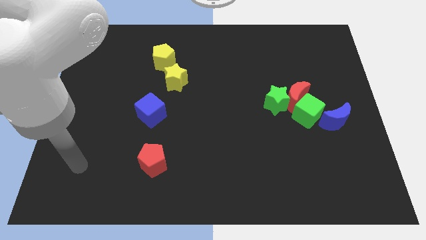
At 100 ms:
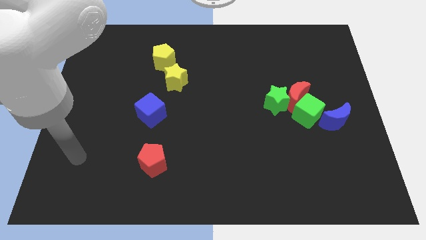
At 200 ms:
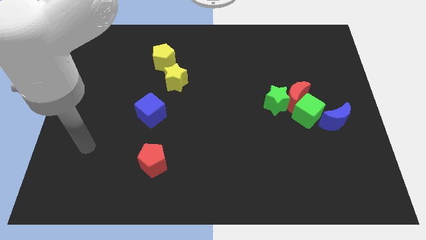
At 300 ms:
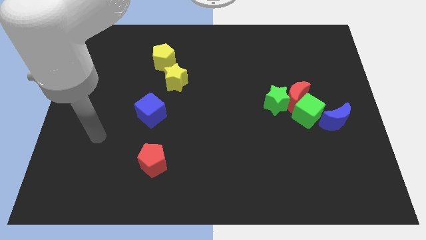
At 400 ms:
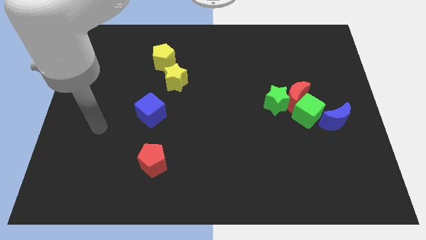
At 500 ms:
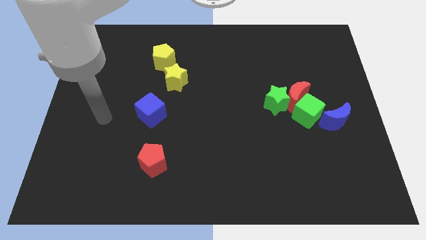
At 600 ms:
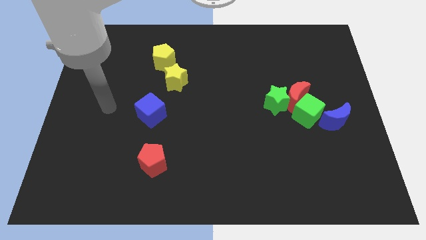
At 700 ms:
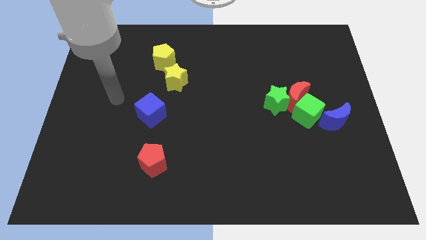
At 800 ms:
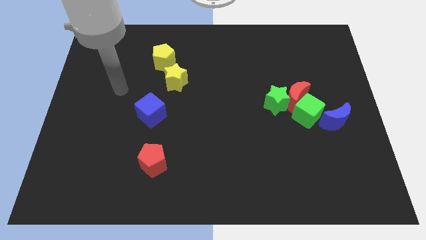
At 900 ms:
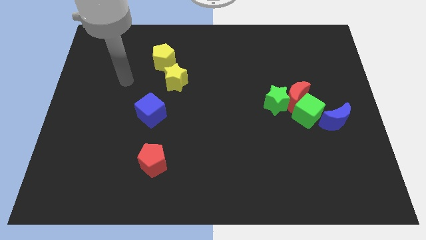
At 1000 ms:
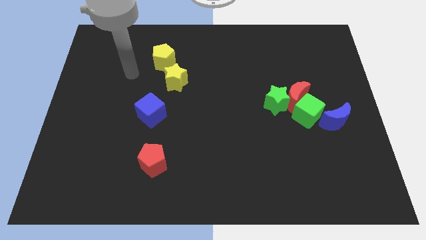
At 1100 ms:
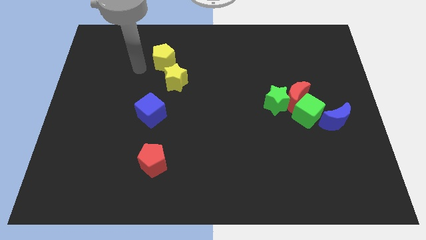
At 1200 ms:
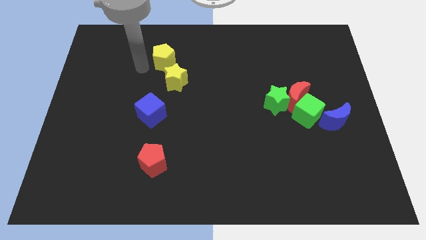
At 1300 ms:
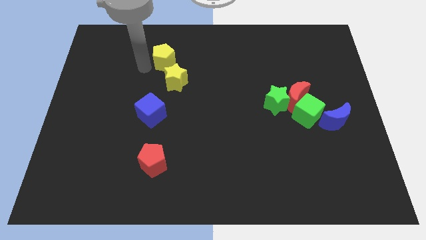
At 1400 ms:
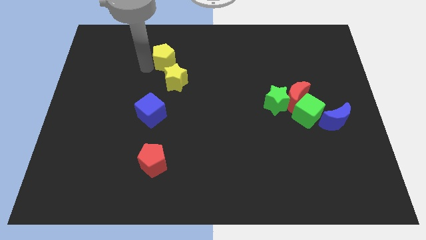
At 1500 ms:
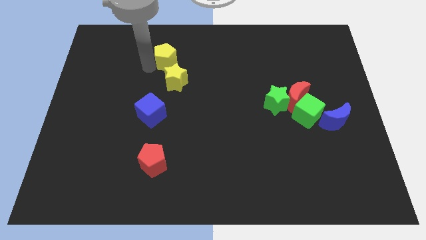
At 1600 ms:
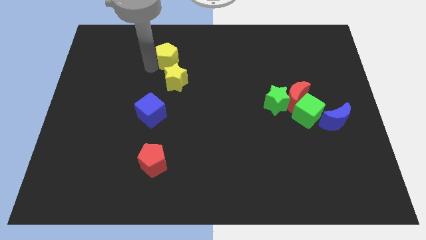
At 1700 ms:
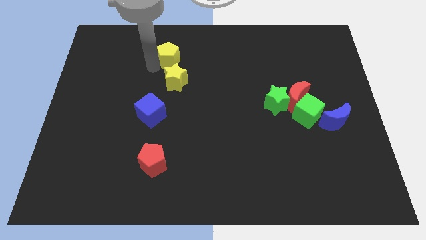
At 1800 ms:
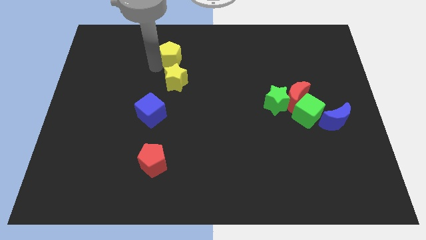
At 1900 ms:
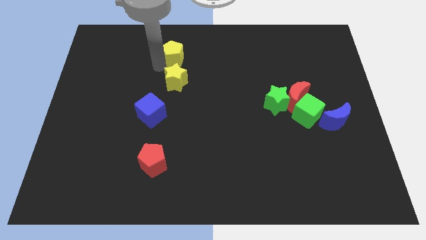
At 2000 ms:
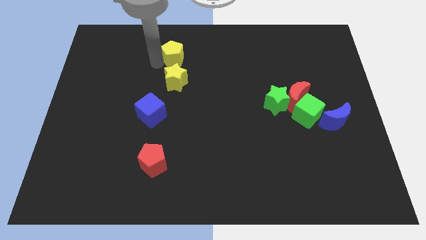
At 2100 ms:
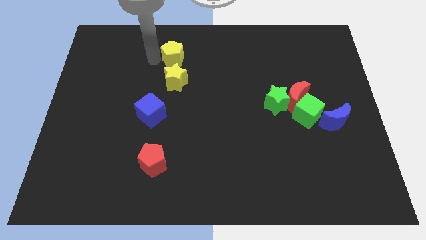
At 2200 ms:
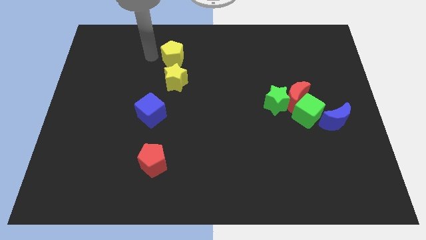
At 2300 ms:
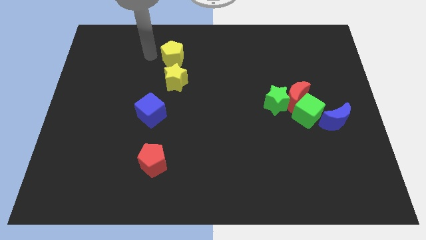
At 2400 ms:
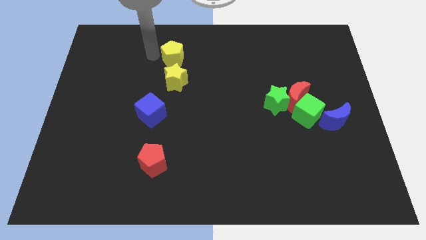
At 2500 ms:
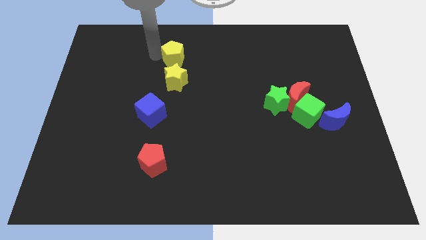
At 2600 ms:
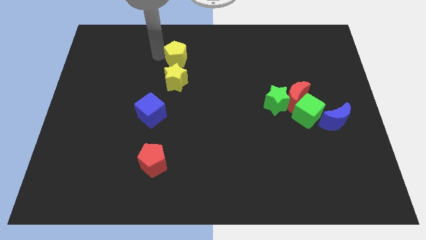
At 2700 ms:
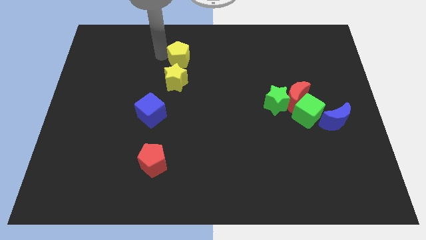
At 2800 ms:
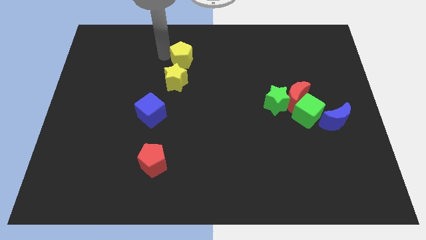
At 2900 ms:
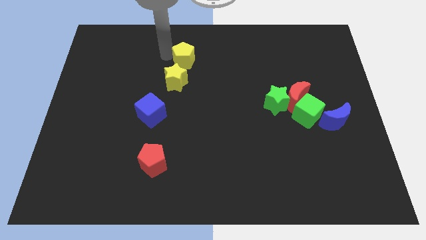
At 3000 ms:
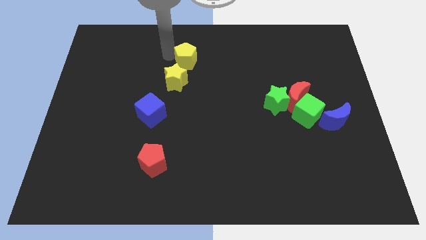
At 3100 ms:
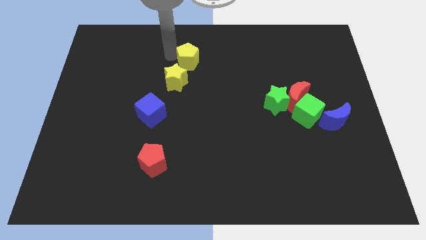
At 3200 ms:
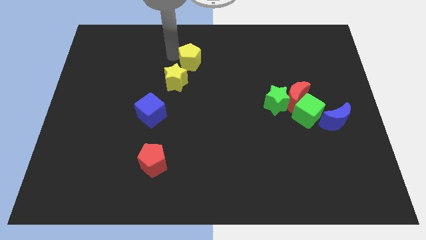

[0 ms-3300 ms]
slightly slide the yellow pentagon to the right

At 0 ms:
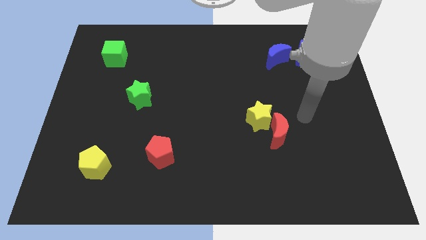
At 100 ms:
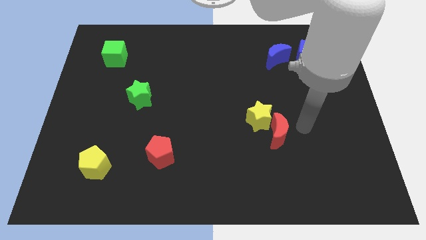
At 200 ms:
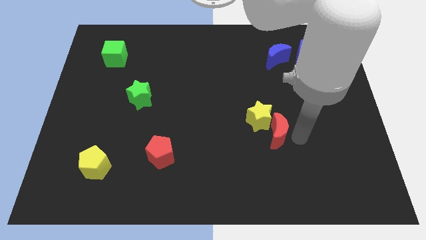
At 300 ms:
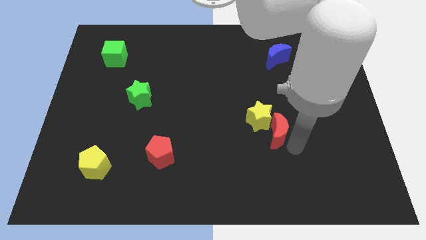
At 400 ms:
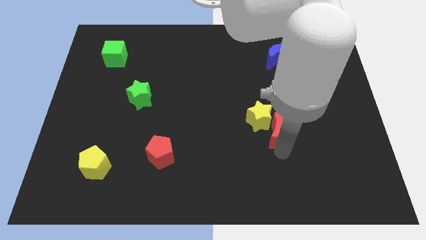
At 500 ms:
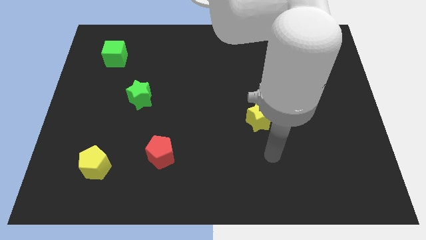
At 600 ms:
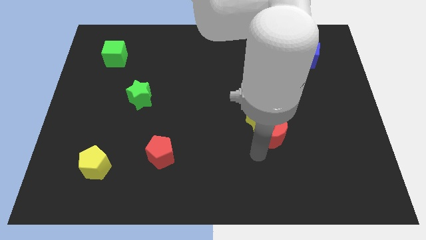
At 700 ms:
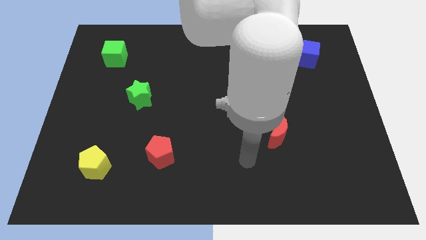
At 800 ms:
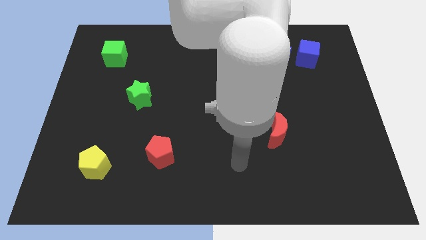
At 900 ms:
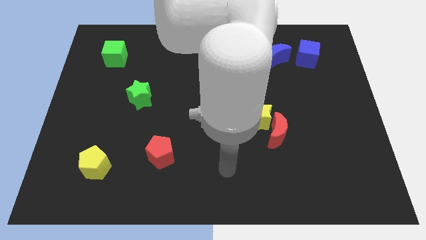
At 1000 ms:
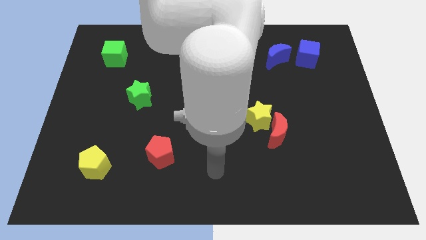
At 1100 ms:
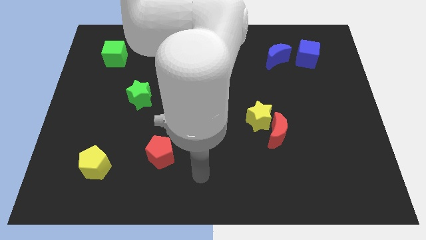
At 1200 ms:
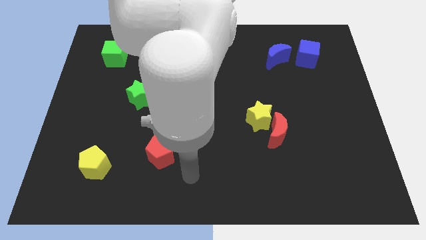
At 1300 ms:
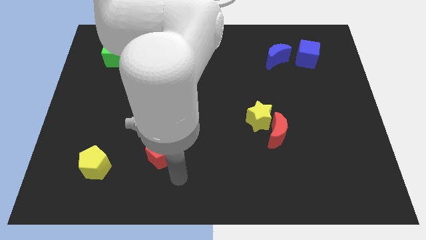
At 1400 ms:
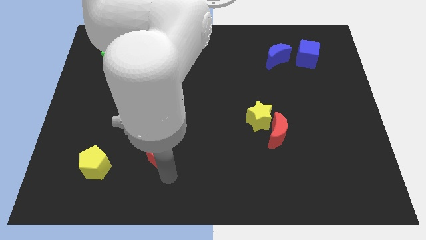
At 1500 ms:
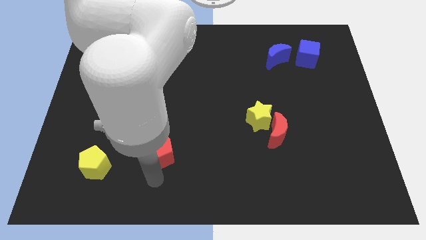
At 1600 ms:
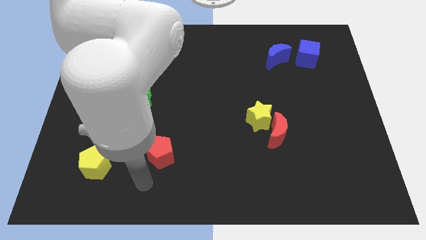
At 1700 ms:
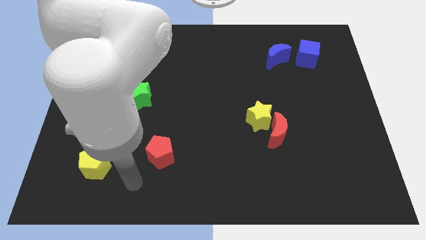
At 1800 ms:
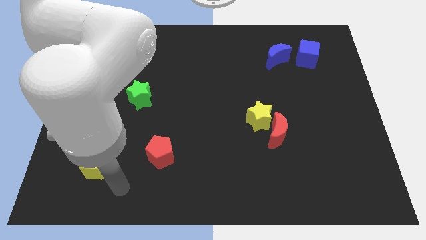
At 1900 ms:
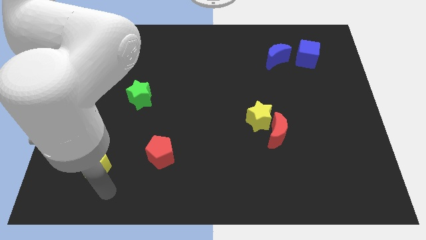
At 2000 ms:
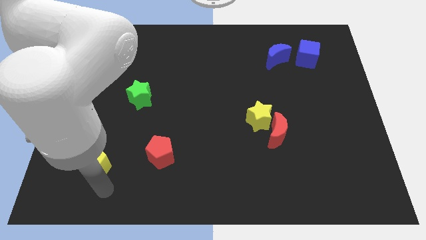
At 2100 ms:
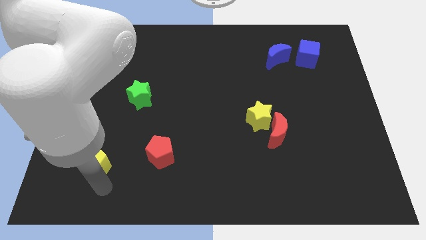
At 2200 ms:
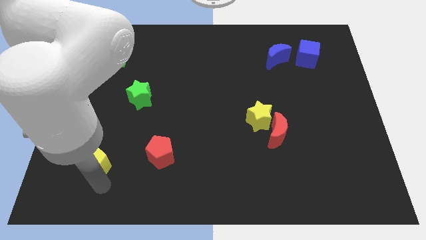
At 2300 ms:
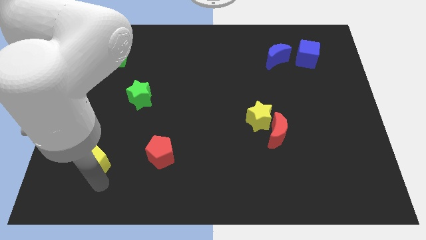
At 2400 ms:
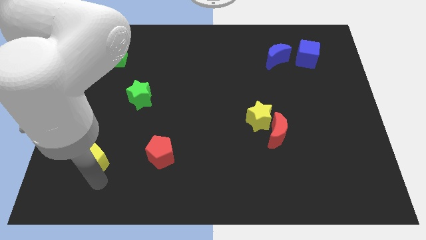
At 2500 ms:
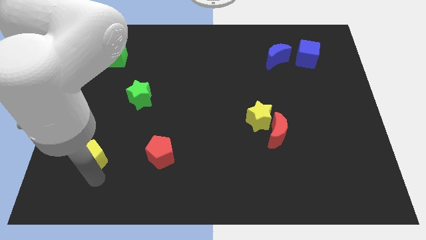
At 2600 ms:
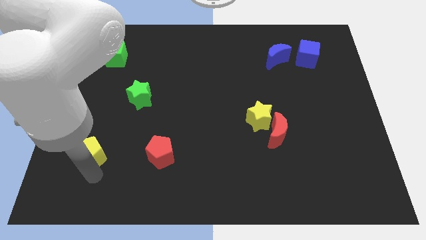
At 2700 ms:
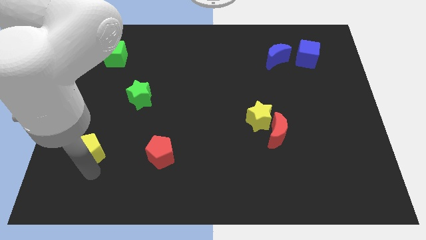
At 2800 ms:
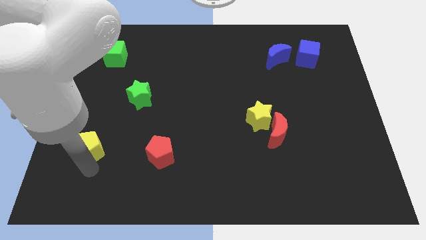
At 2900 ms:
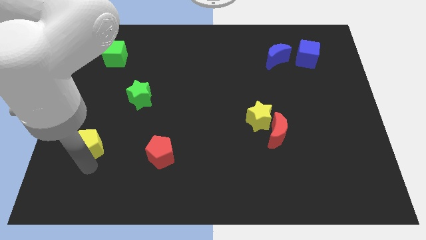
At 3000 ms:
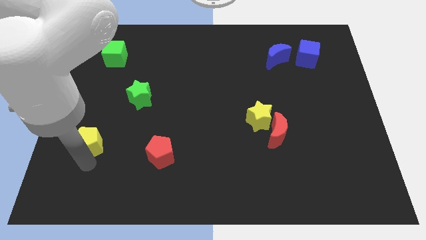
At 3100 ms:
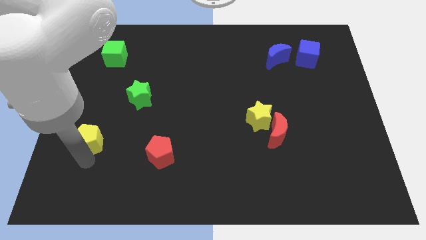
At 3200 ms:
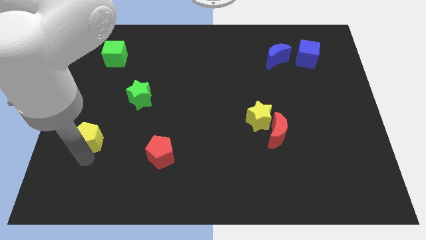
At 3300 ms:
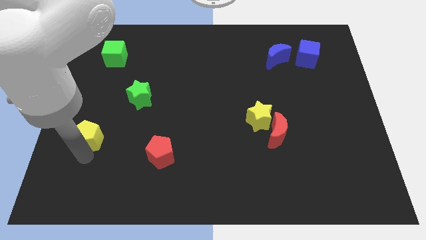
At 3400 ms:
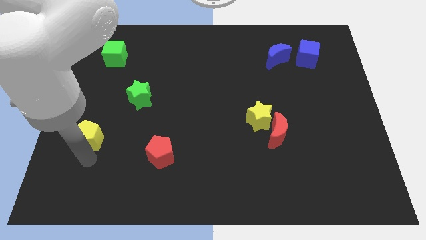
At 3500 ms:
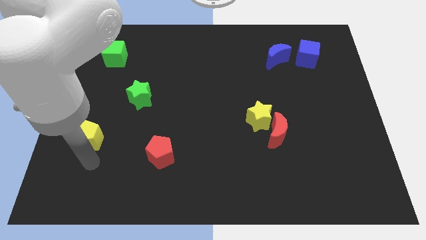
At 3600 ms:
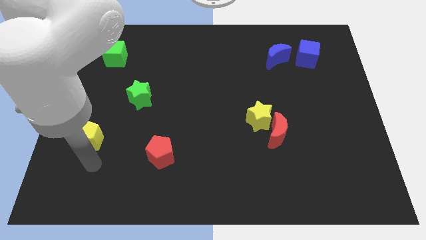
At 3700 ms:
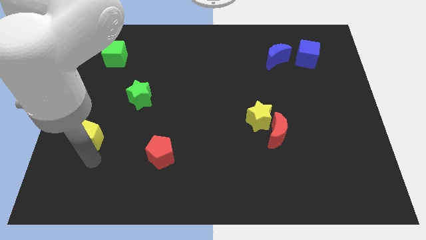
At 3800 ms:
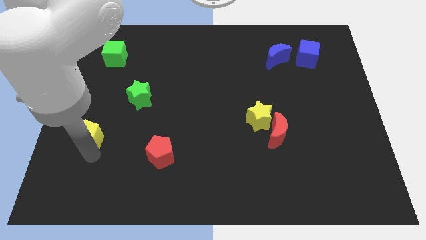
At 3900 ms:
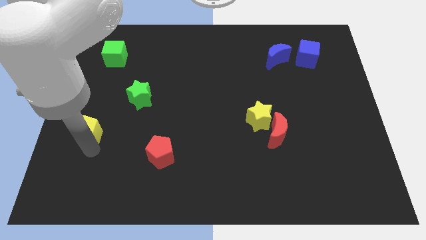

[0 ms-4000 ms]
slightly push the yellow pentagon up

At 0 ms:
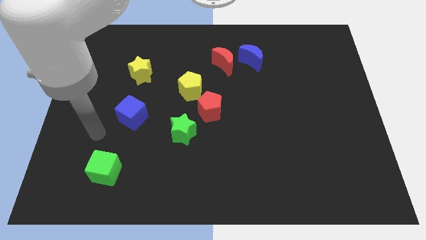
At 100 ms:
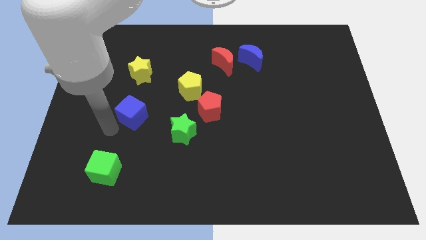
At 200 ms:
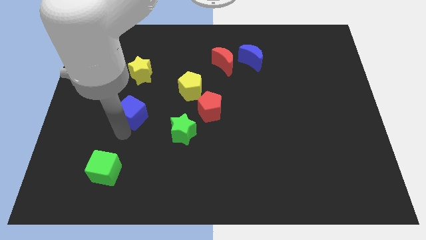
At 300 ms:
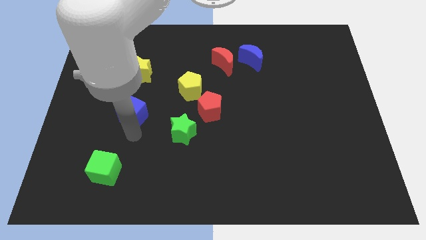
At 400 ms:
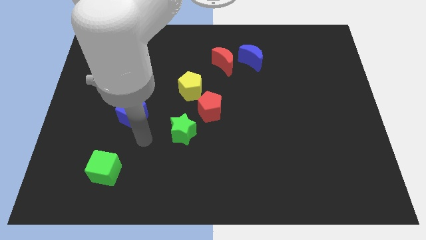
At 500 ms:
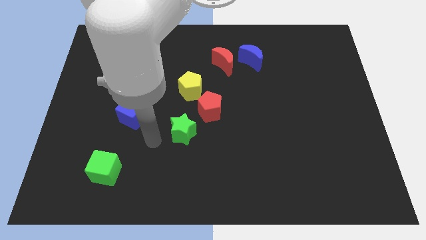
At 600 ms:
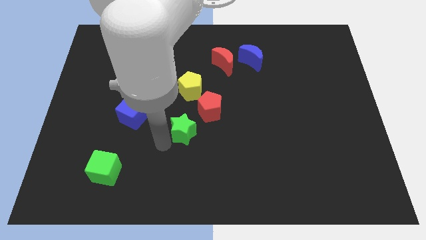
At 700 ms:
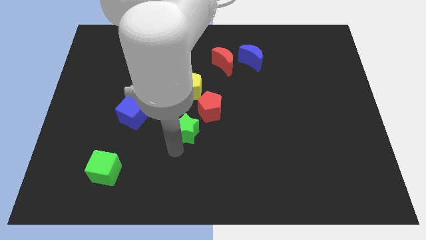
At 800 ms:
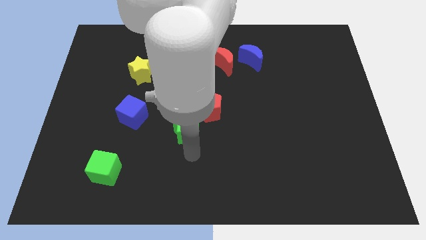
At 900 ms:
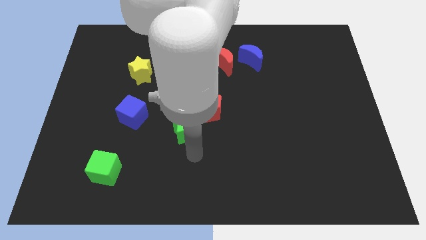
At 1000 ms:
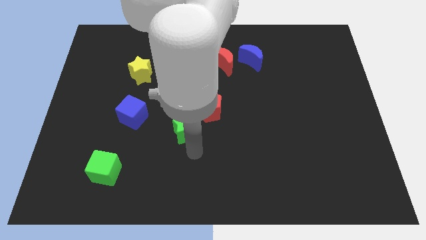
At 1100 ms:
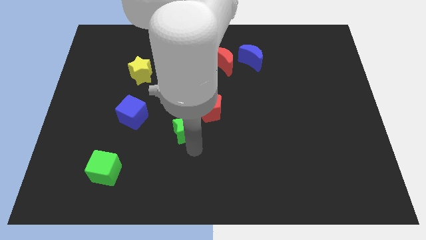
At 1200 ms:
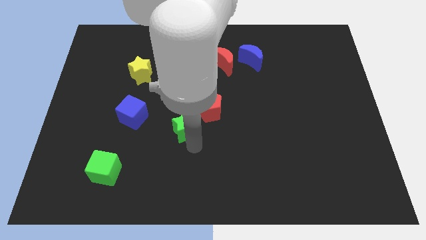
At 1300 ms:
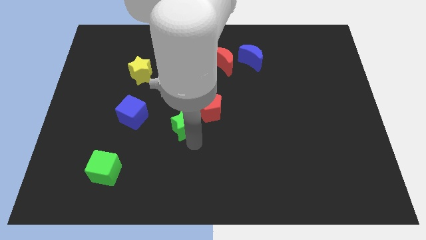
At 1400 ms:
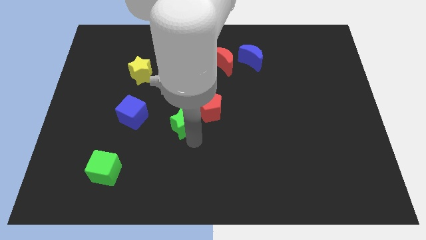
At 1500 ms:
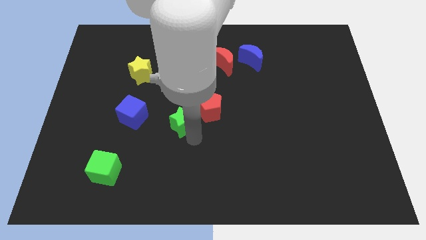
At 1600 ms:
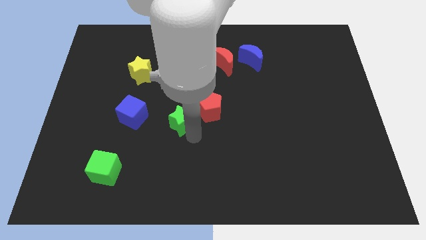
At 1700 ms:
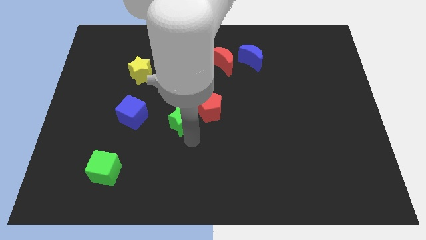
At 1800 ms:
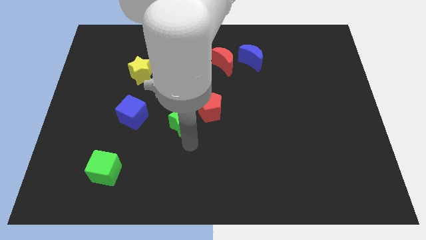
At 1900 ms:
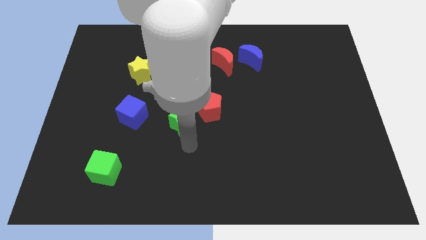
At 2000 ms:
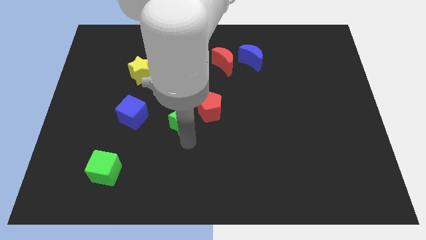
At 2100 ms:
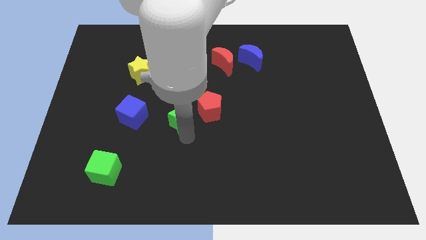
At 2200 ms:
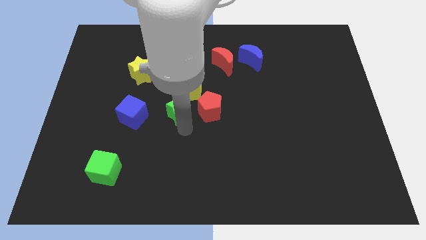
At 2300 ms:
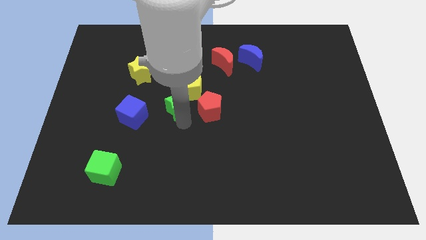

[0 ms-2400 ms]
move the green star a little up
